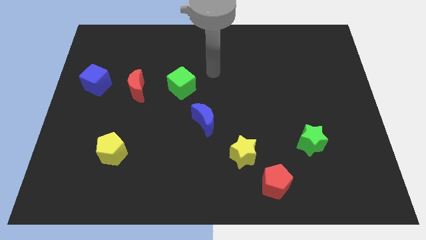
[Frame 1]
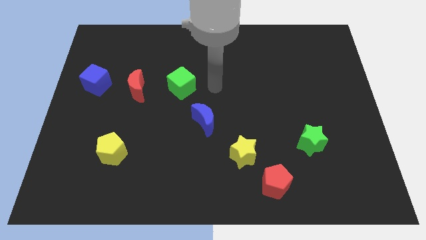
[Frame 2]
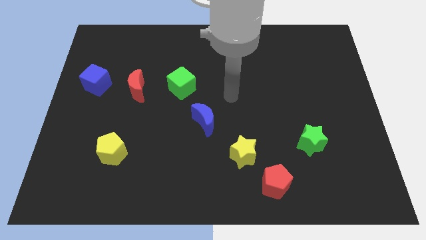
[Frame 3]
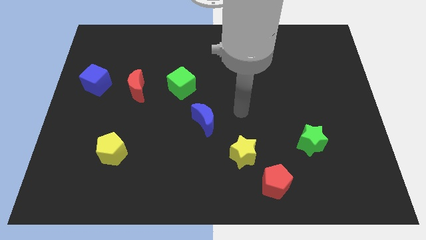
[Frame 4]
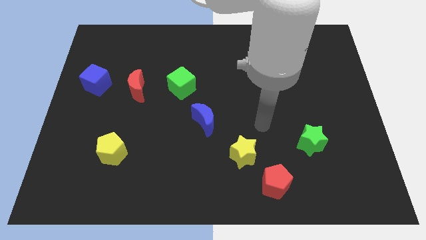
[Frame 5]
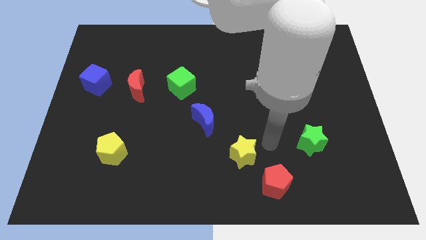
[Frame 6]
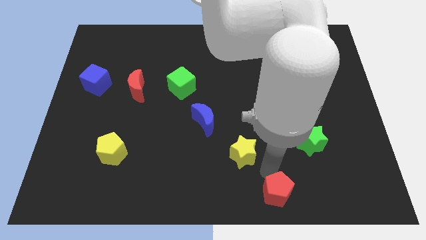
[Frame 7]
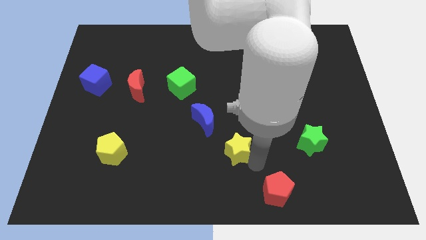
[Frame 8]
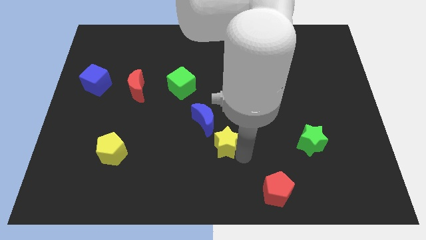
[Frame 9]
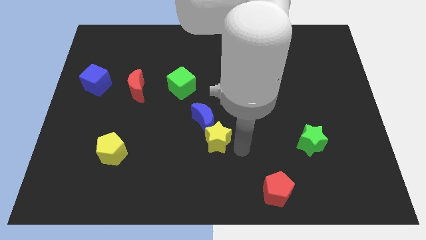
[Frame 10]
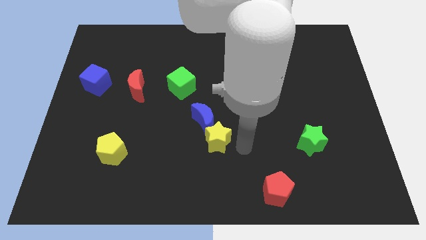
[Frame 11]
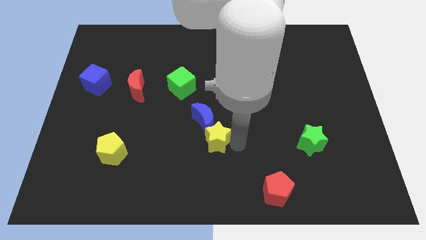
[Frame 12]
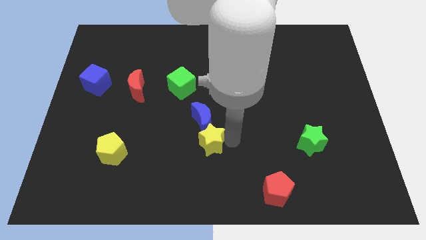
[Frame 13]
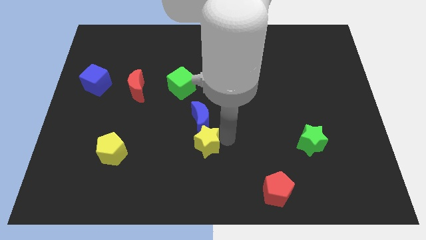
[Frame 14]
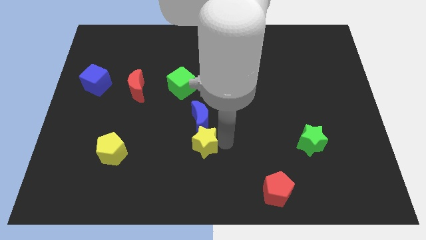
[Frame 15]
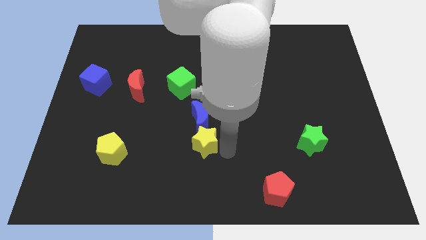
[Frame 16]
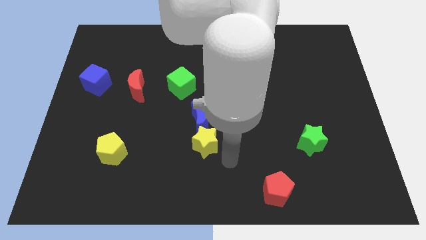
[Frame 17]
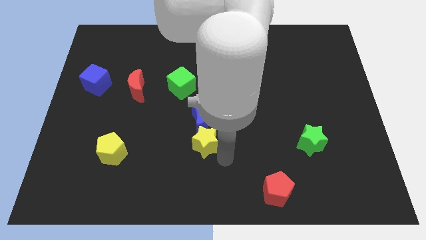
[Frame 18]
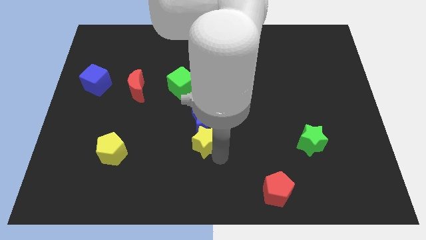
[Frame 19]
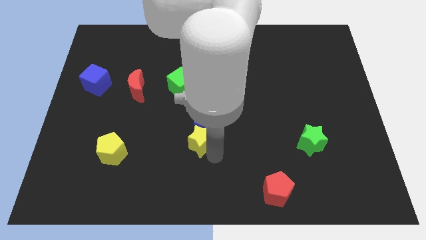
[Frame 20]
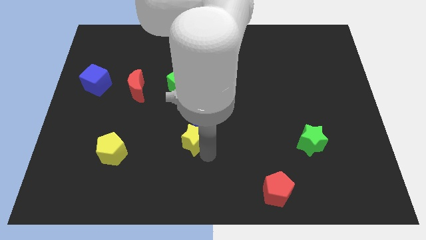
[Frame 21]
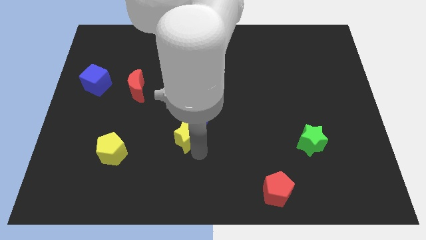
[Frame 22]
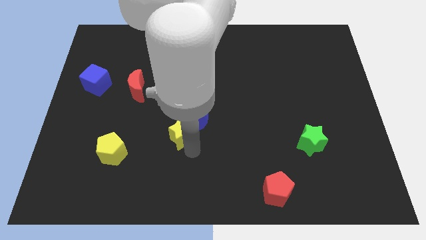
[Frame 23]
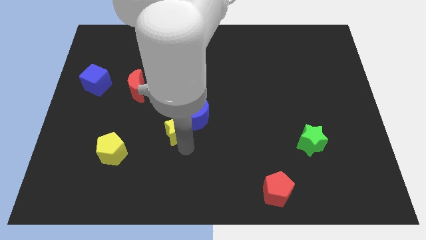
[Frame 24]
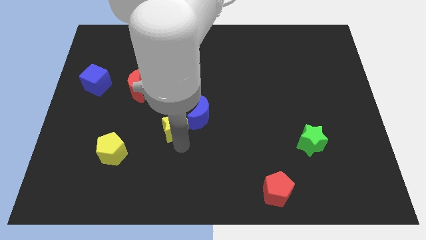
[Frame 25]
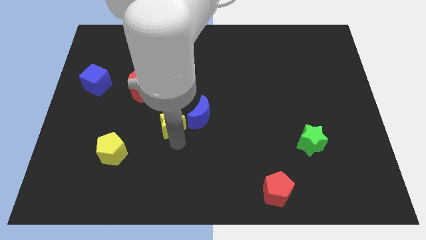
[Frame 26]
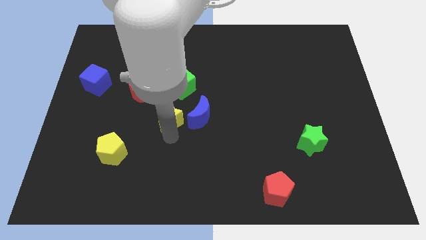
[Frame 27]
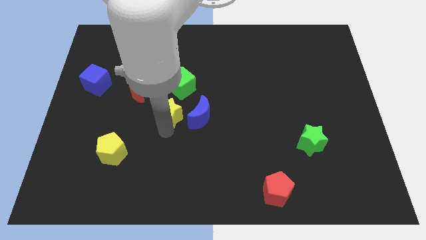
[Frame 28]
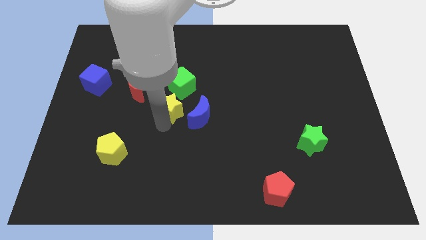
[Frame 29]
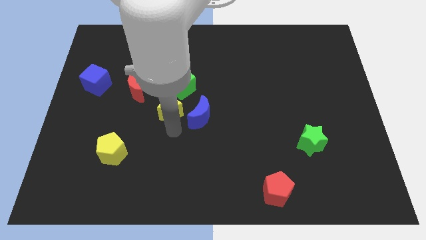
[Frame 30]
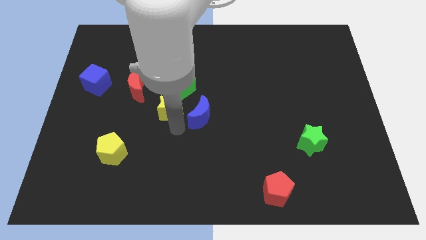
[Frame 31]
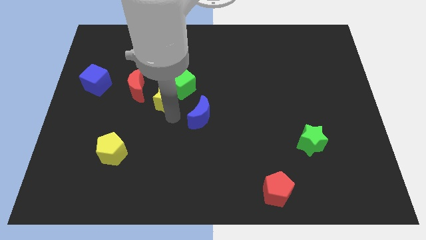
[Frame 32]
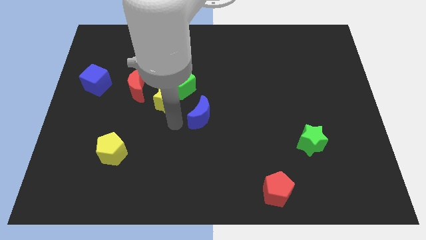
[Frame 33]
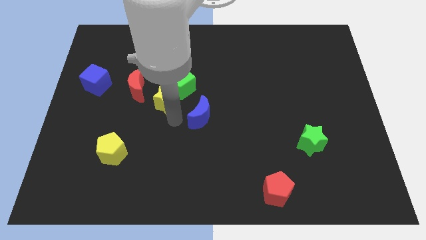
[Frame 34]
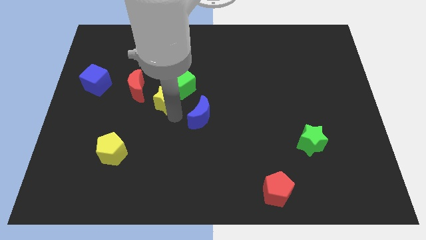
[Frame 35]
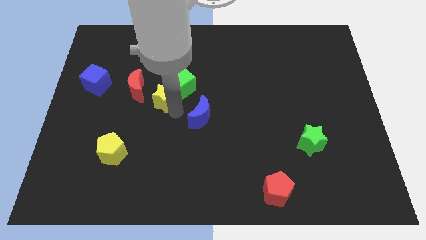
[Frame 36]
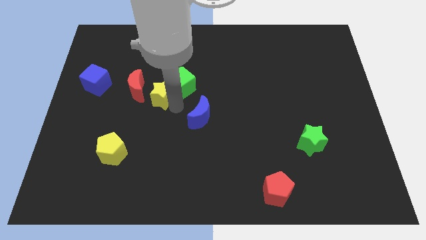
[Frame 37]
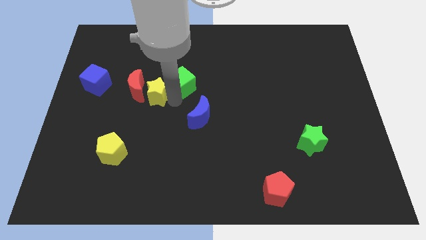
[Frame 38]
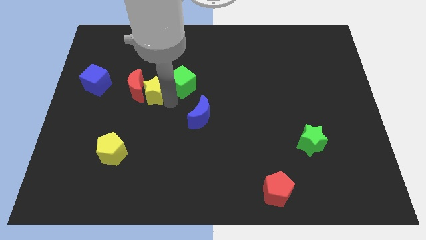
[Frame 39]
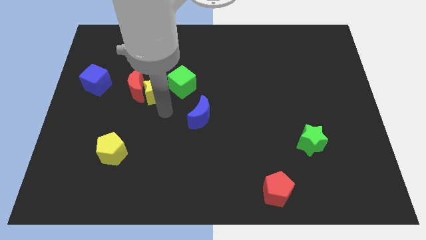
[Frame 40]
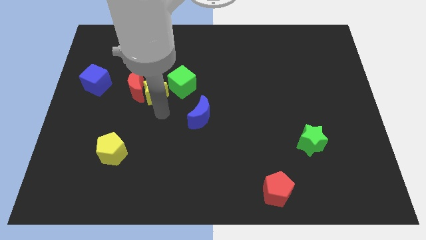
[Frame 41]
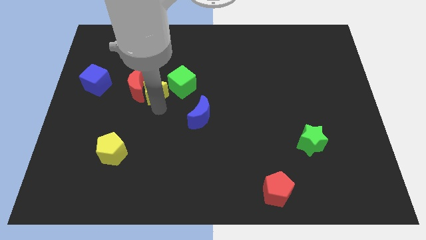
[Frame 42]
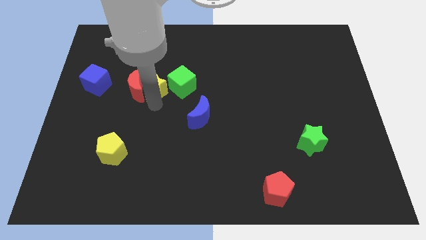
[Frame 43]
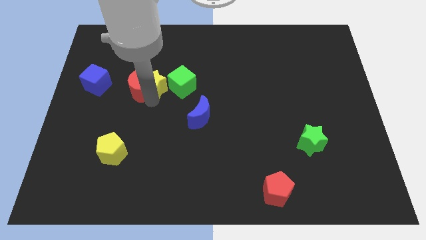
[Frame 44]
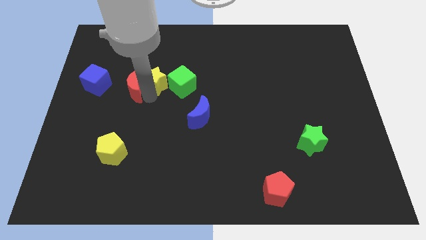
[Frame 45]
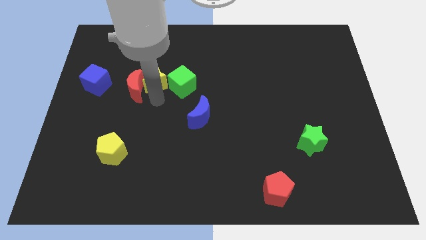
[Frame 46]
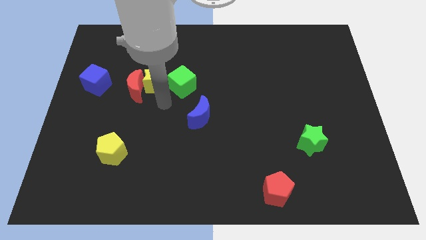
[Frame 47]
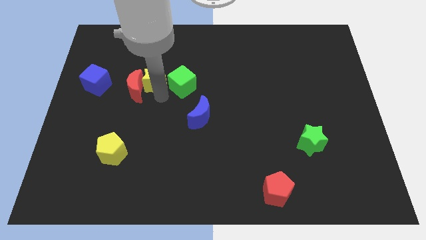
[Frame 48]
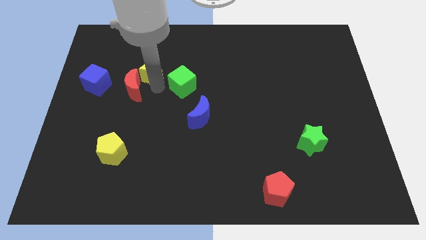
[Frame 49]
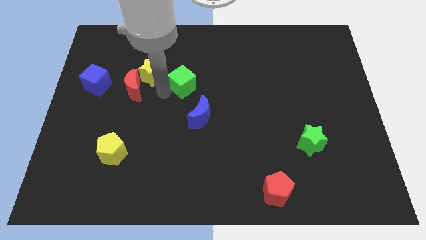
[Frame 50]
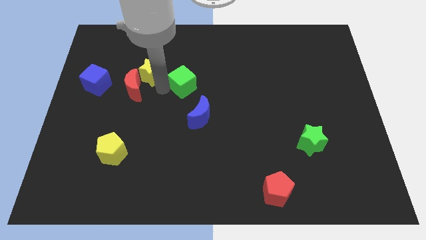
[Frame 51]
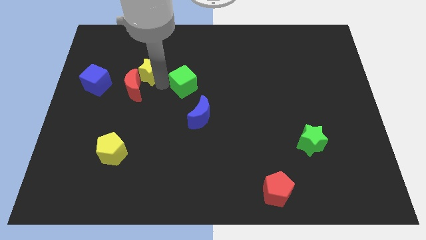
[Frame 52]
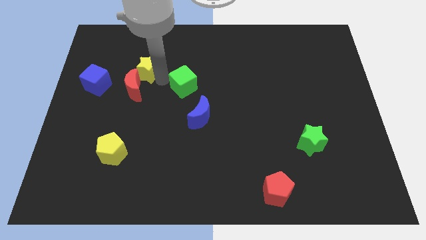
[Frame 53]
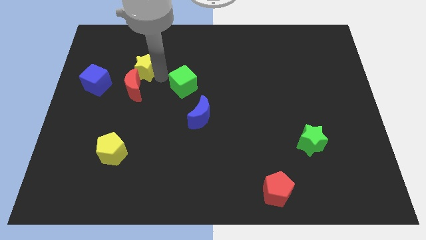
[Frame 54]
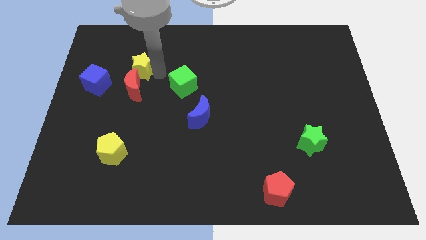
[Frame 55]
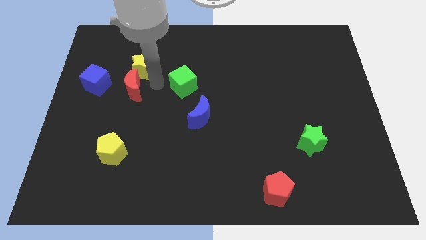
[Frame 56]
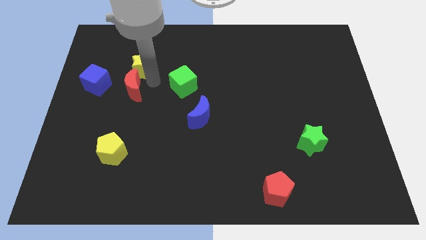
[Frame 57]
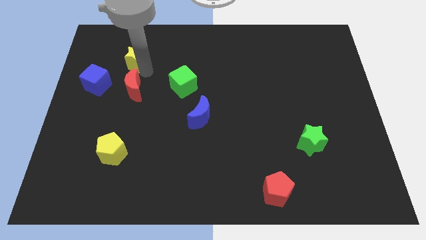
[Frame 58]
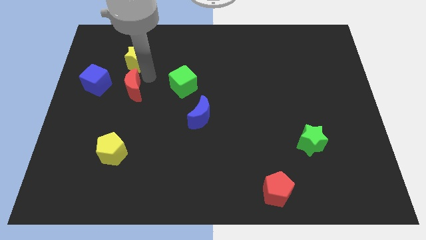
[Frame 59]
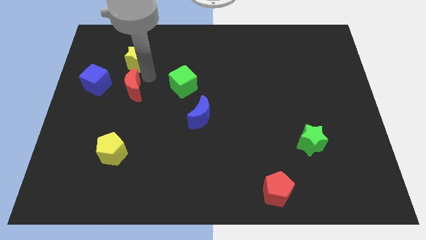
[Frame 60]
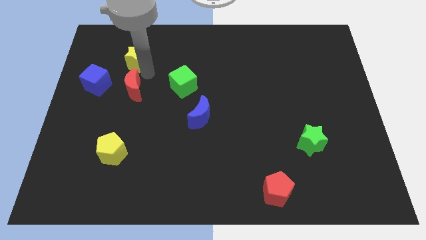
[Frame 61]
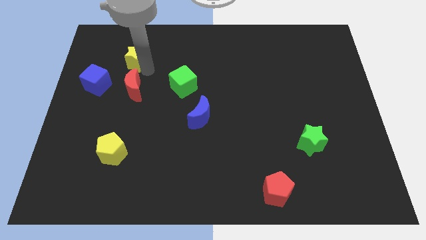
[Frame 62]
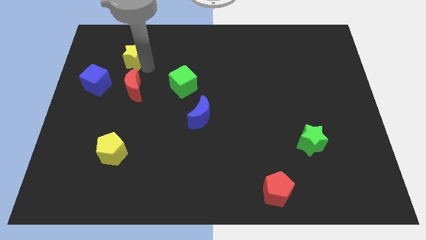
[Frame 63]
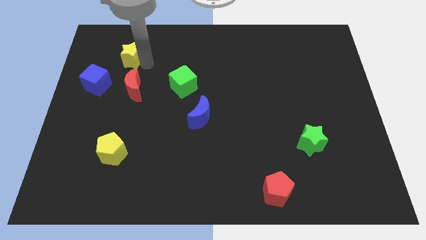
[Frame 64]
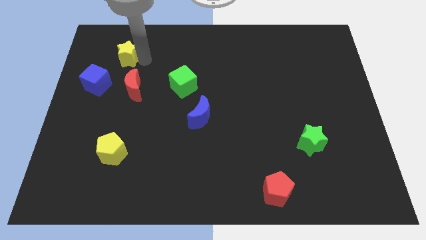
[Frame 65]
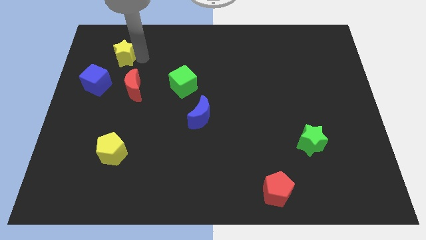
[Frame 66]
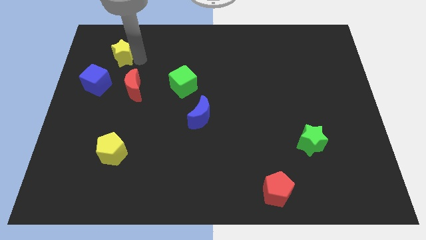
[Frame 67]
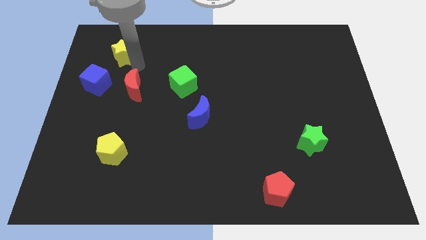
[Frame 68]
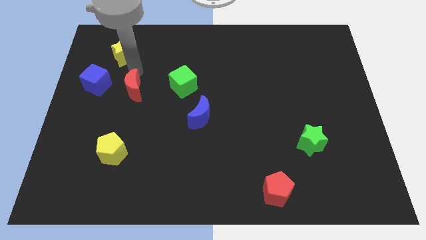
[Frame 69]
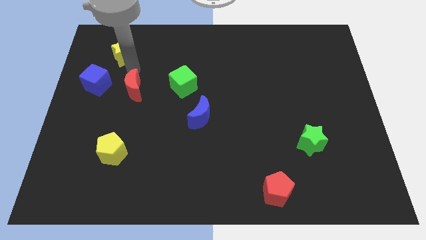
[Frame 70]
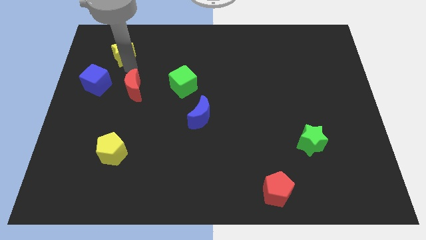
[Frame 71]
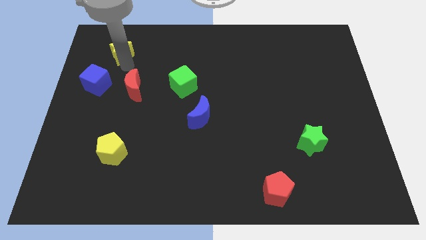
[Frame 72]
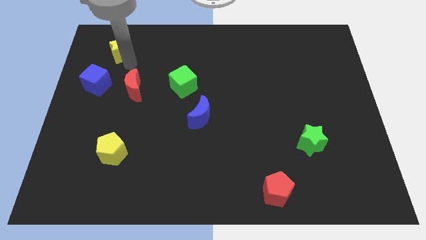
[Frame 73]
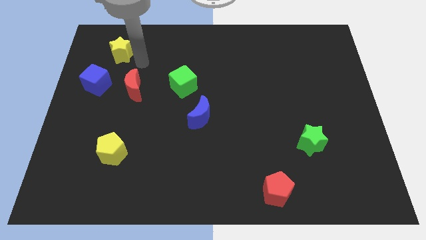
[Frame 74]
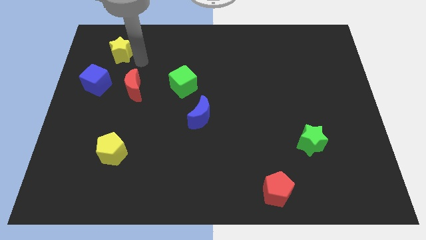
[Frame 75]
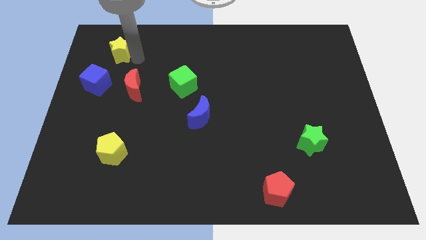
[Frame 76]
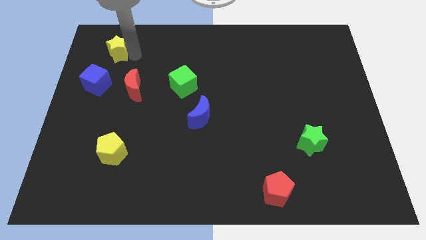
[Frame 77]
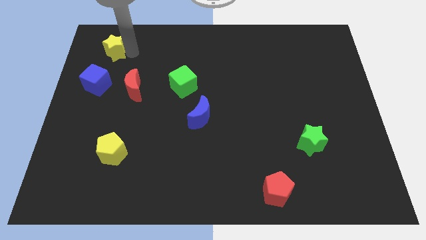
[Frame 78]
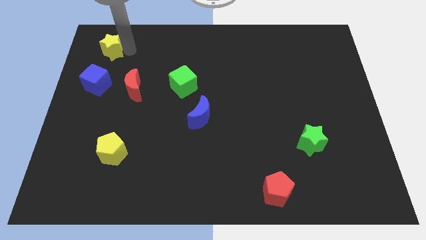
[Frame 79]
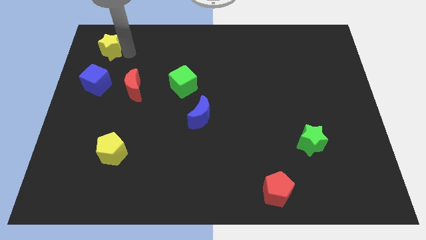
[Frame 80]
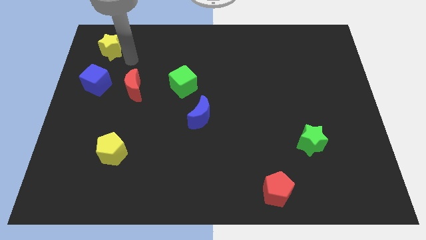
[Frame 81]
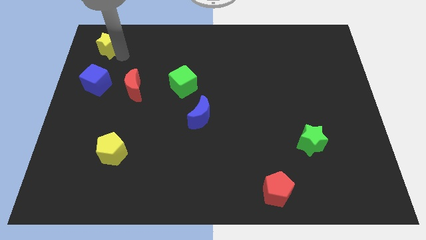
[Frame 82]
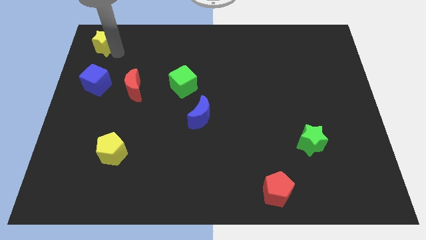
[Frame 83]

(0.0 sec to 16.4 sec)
slide the yellow star to the top left of the board
